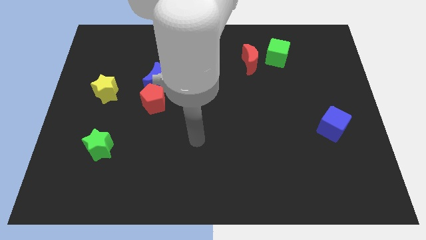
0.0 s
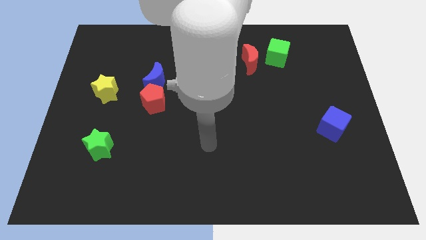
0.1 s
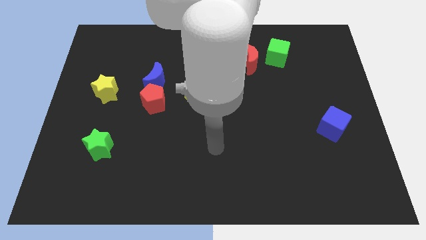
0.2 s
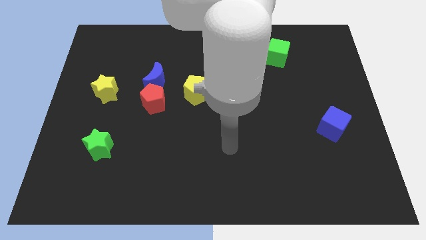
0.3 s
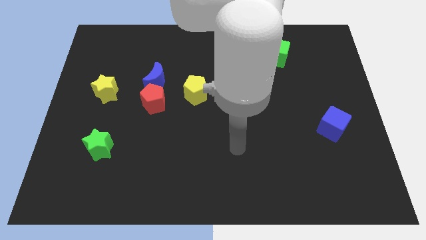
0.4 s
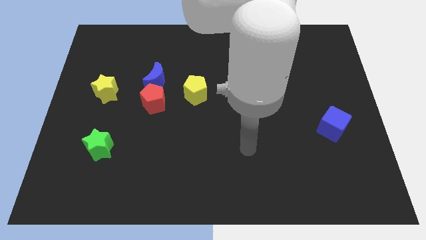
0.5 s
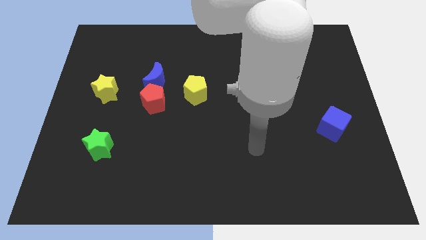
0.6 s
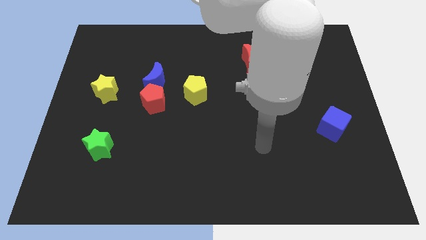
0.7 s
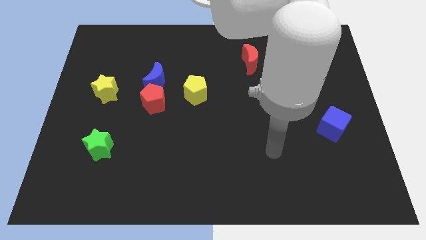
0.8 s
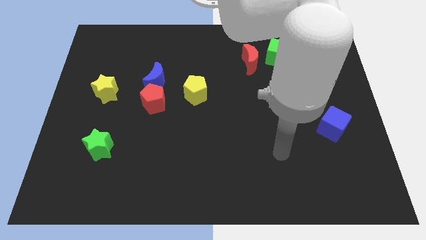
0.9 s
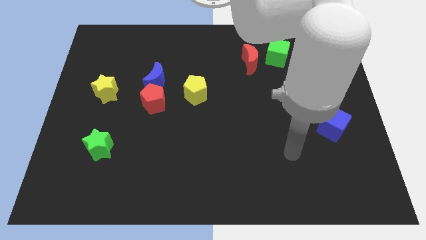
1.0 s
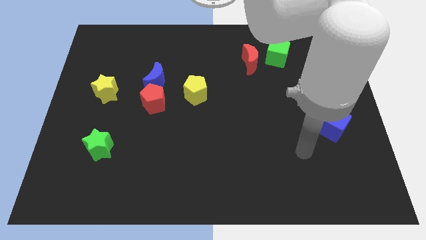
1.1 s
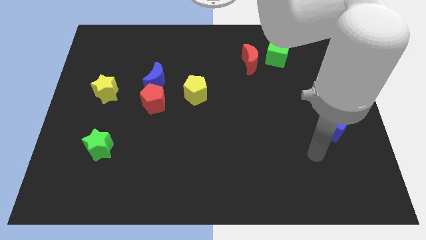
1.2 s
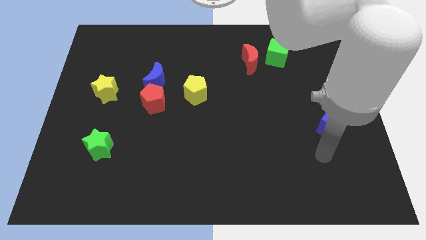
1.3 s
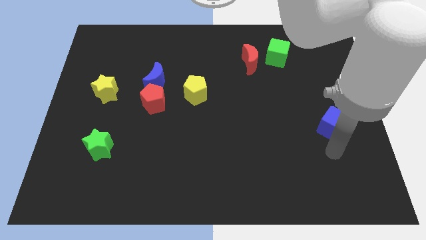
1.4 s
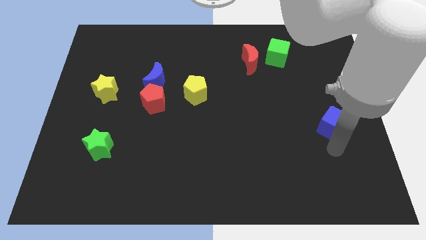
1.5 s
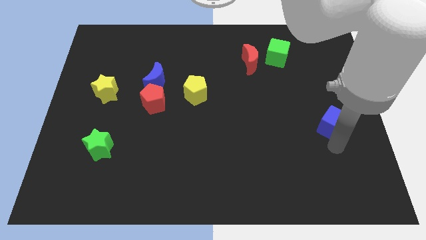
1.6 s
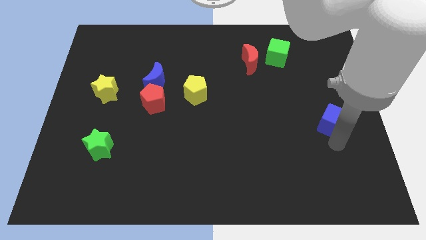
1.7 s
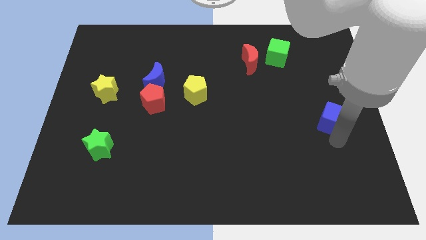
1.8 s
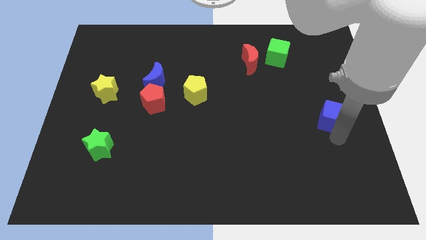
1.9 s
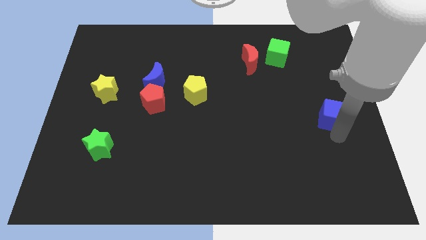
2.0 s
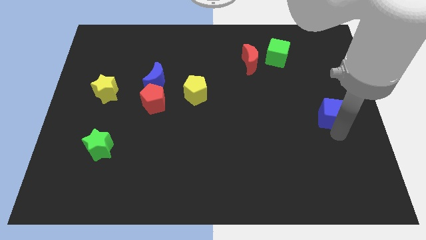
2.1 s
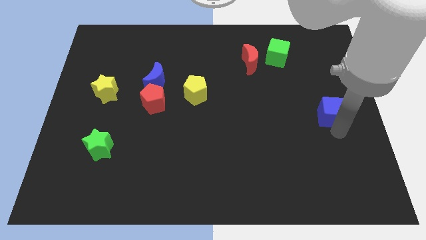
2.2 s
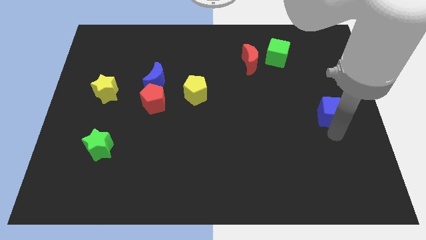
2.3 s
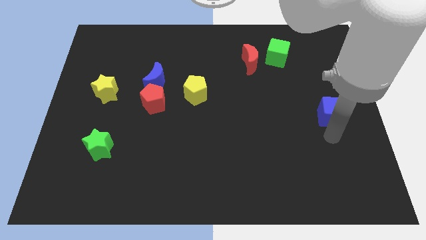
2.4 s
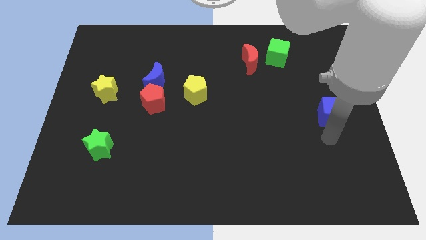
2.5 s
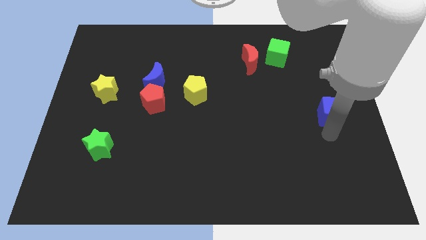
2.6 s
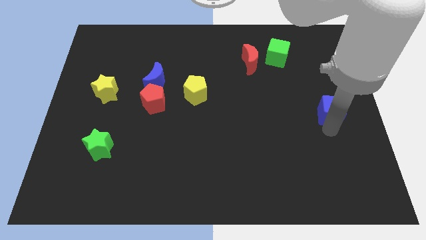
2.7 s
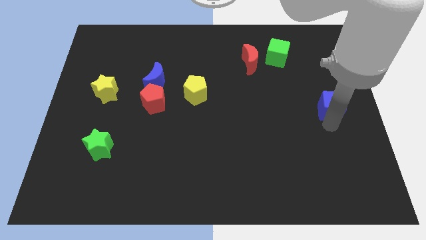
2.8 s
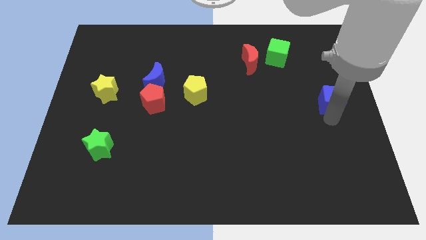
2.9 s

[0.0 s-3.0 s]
slide the blue cube upwards a little bit

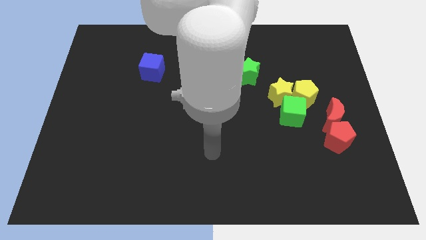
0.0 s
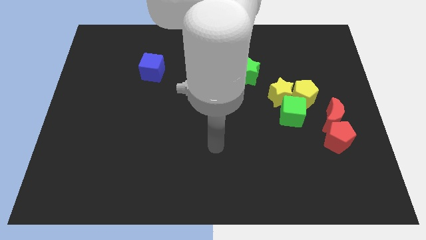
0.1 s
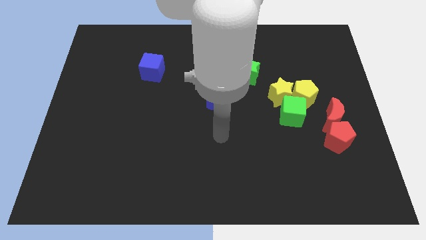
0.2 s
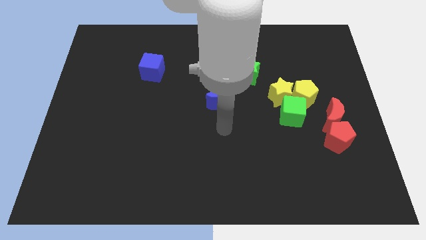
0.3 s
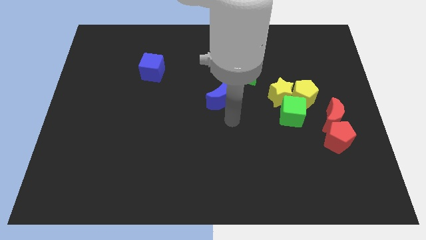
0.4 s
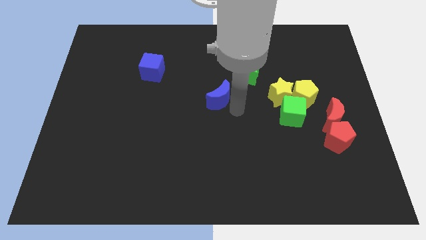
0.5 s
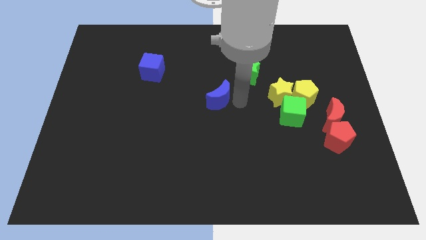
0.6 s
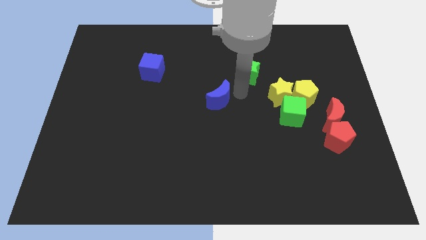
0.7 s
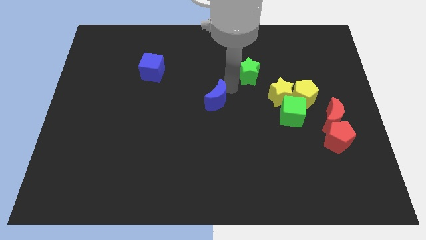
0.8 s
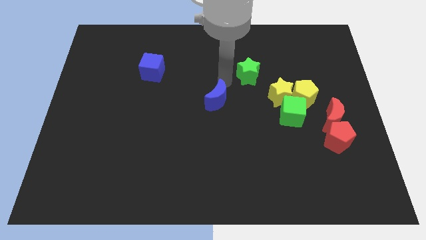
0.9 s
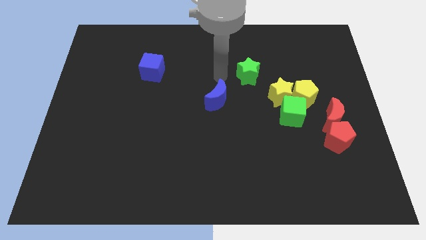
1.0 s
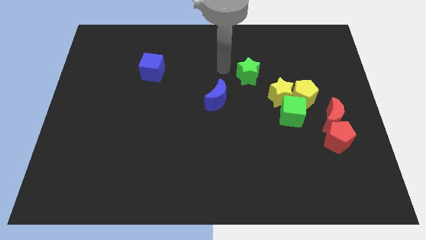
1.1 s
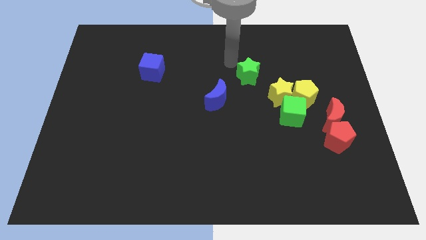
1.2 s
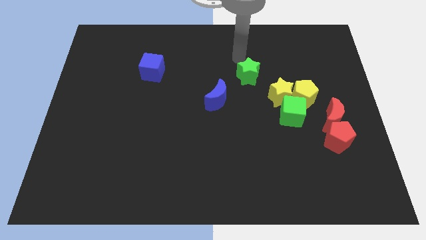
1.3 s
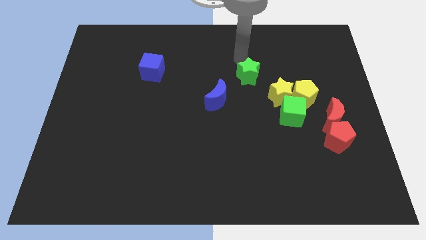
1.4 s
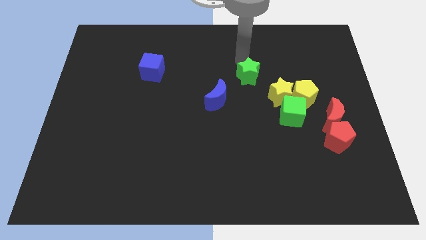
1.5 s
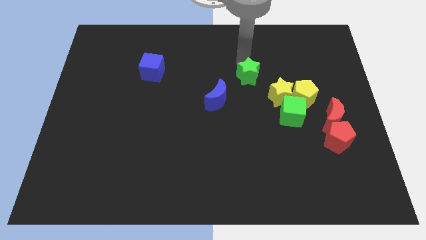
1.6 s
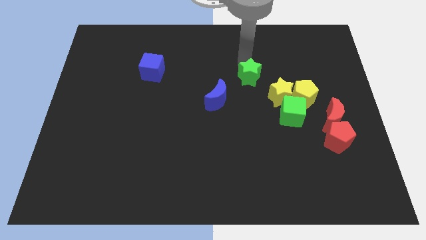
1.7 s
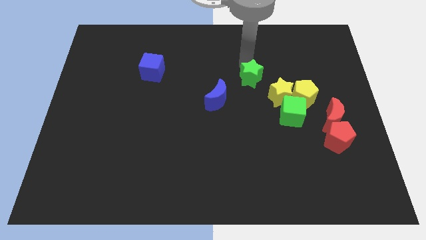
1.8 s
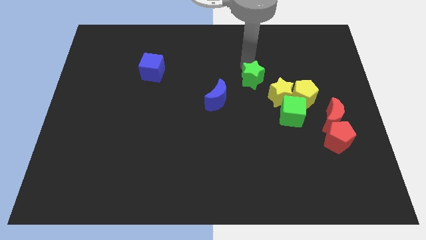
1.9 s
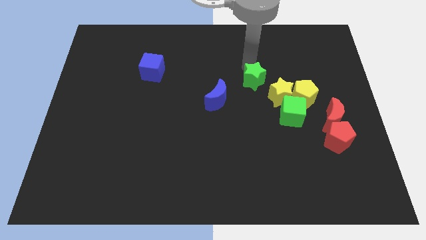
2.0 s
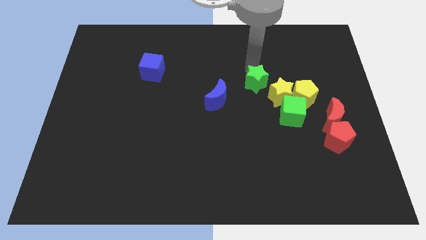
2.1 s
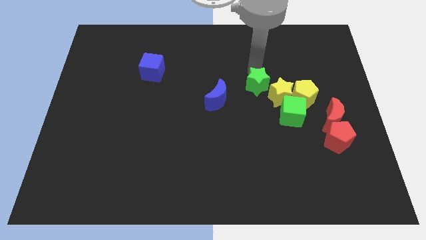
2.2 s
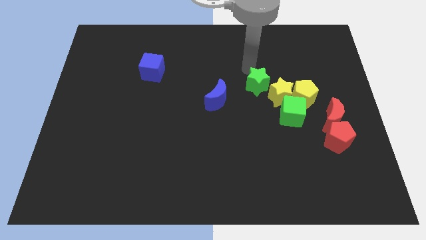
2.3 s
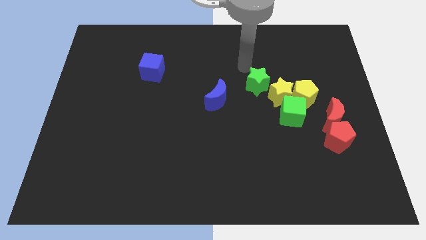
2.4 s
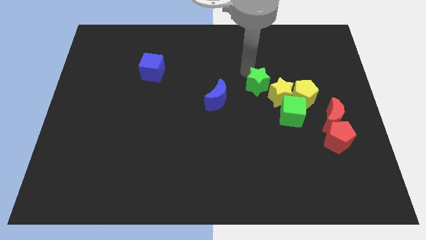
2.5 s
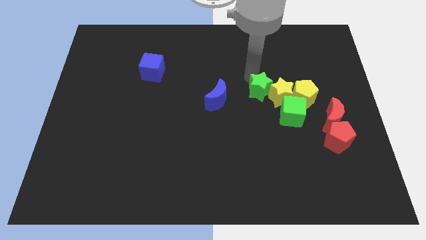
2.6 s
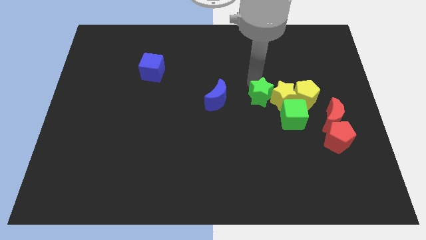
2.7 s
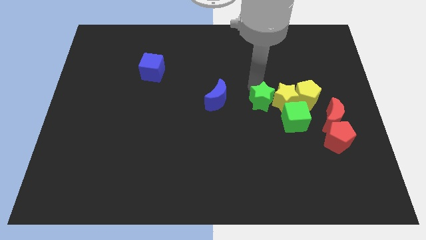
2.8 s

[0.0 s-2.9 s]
push the green star down and to the right somewhat

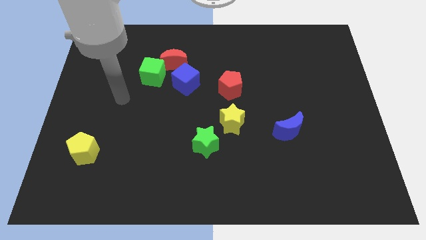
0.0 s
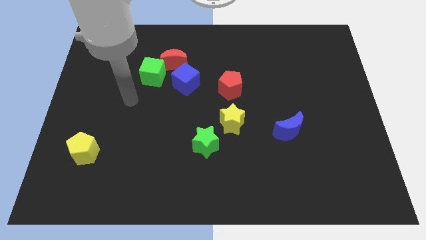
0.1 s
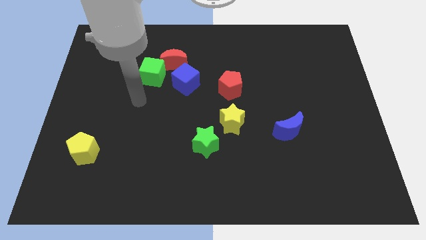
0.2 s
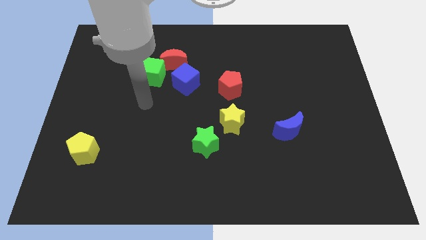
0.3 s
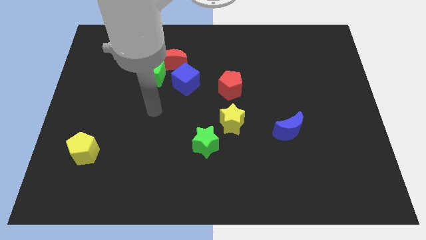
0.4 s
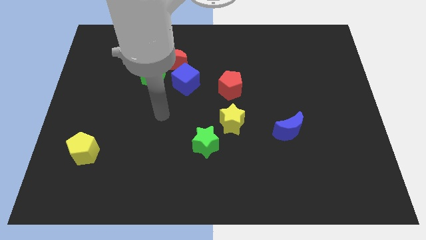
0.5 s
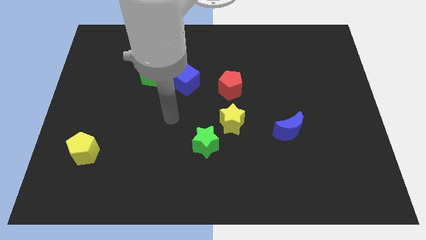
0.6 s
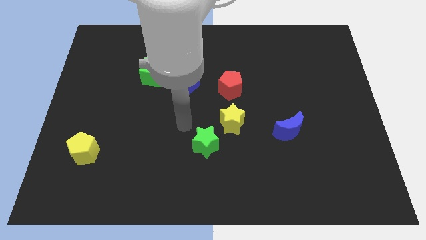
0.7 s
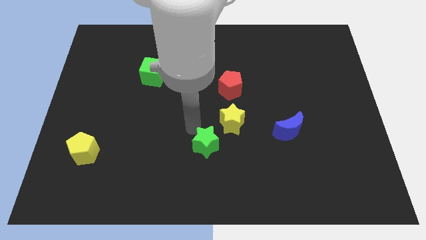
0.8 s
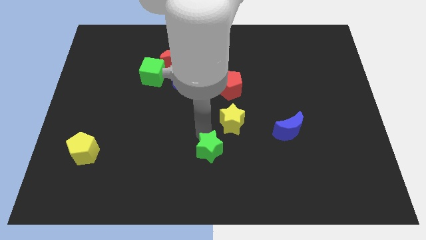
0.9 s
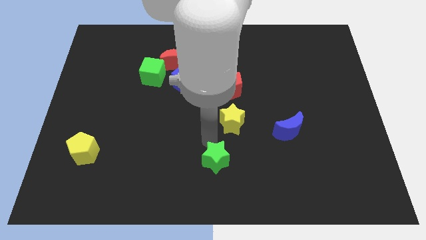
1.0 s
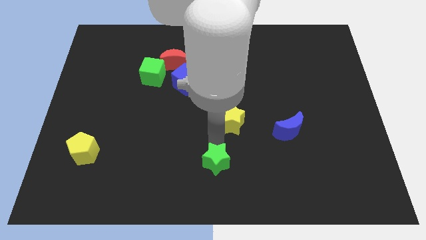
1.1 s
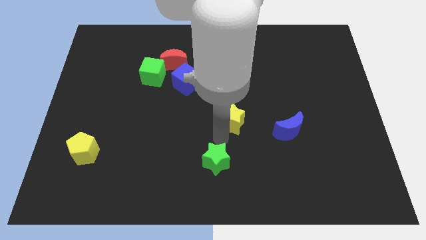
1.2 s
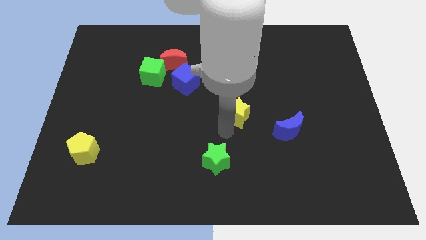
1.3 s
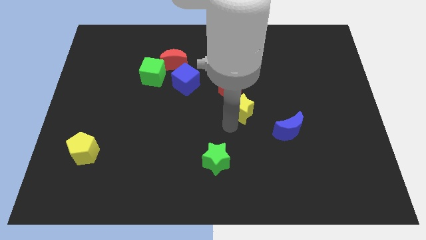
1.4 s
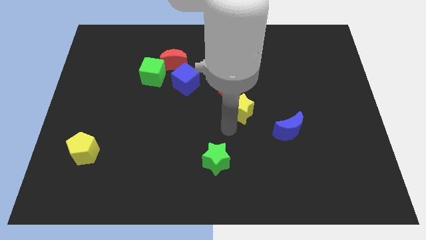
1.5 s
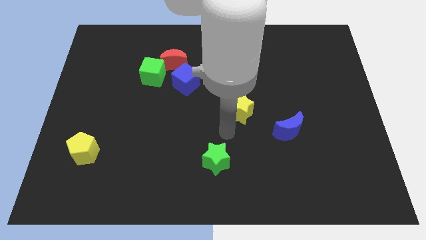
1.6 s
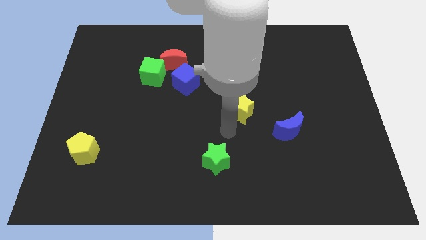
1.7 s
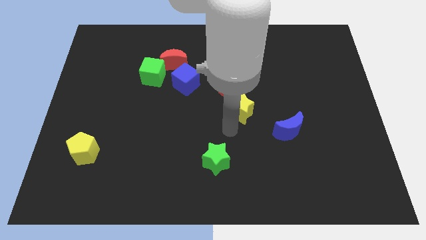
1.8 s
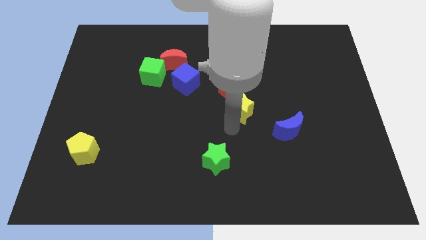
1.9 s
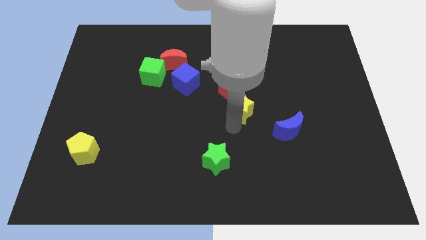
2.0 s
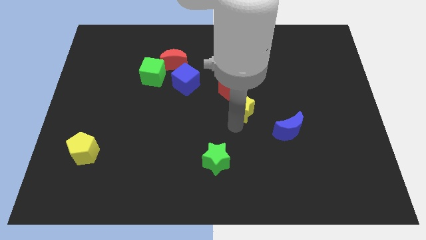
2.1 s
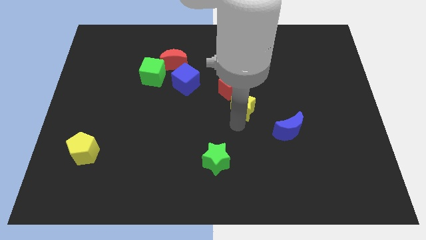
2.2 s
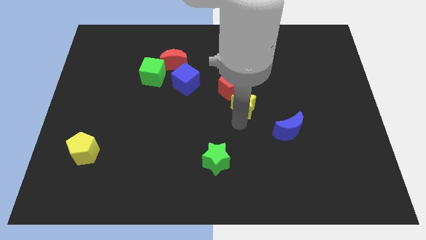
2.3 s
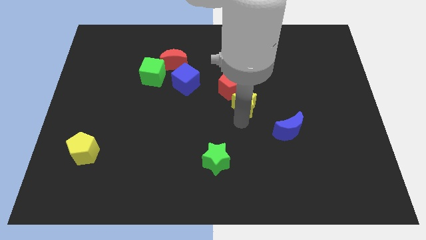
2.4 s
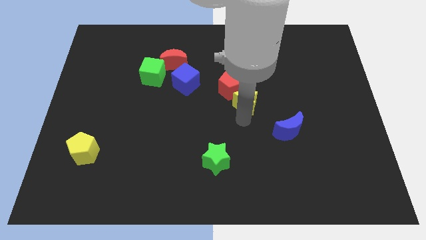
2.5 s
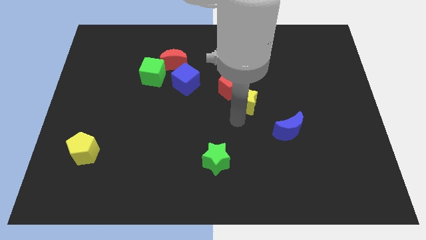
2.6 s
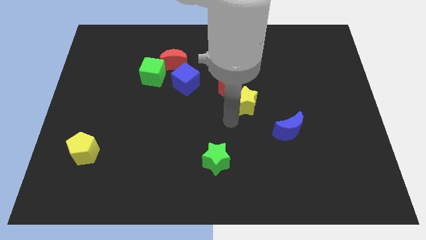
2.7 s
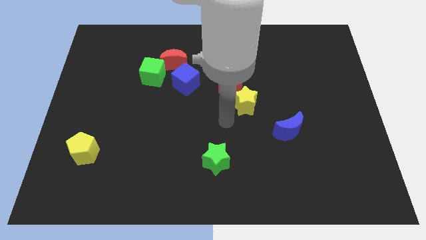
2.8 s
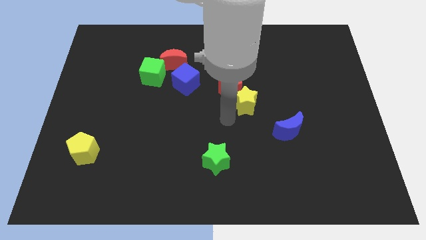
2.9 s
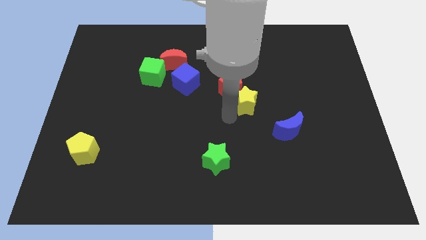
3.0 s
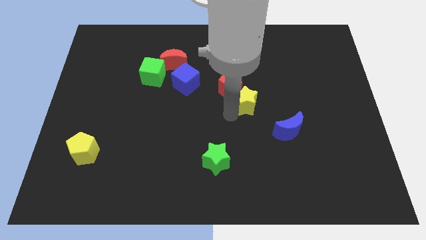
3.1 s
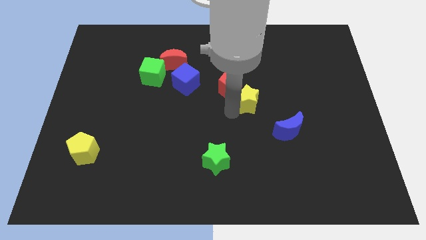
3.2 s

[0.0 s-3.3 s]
push the yellow star diagonally upwards and right a little bit
